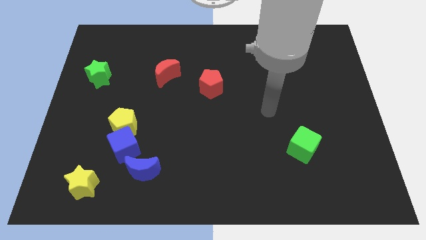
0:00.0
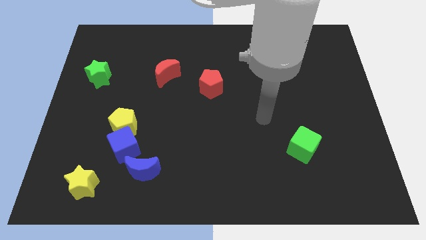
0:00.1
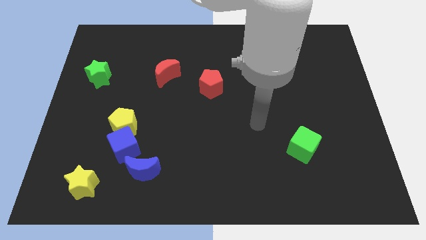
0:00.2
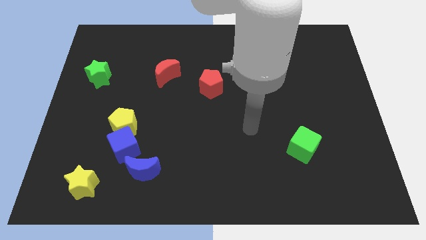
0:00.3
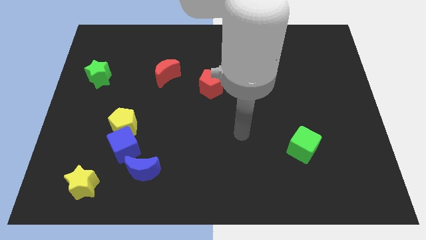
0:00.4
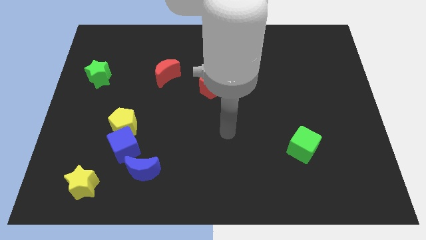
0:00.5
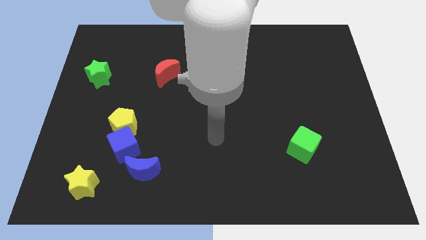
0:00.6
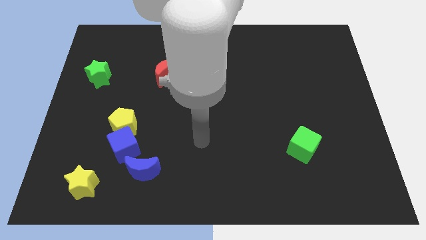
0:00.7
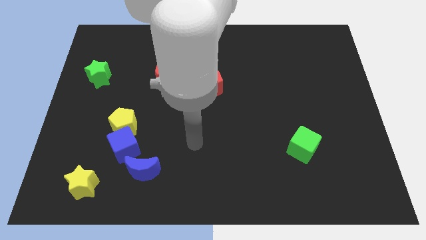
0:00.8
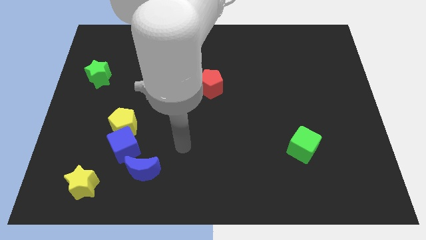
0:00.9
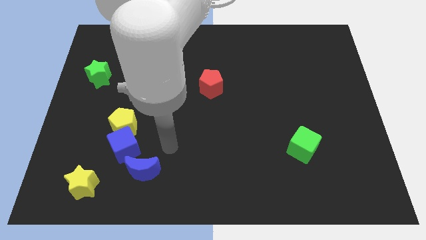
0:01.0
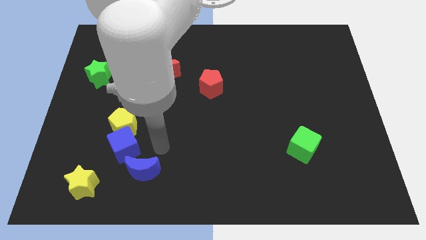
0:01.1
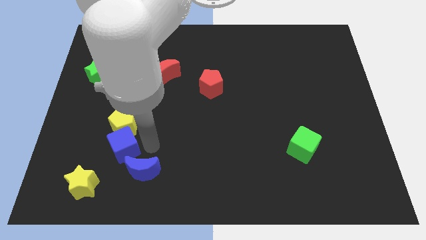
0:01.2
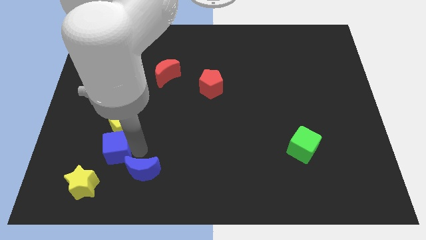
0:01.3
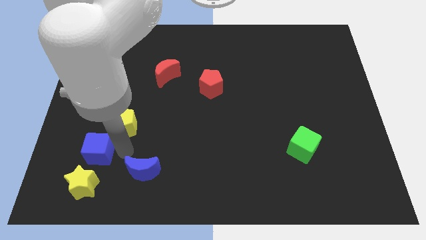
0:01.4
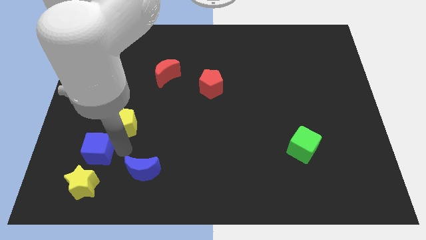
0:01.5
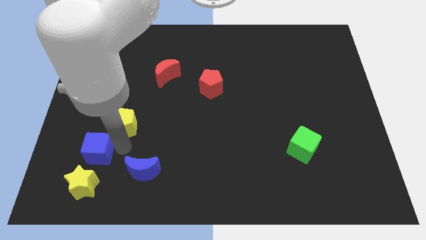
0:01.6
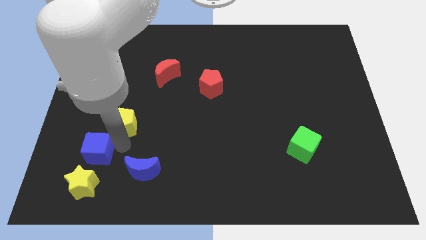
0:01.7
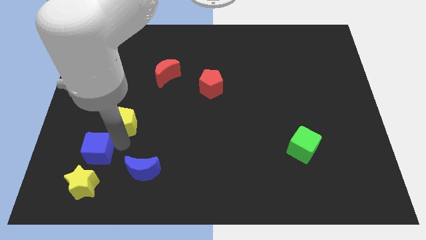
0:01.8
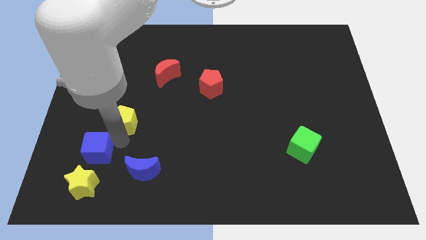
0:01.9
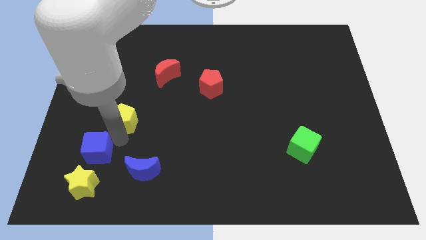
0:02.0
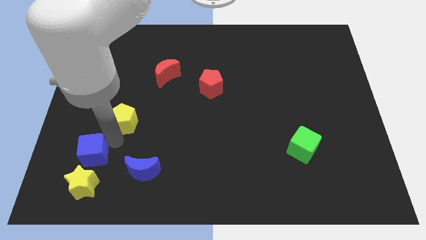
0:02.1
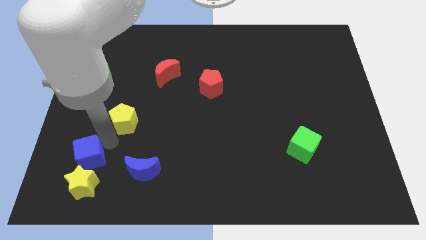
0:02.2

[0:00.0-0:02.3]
separate the yellow pentagon from the blue cube

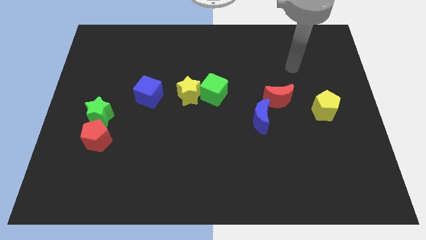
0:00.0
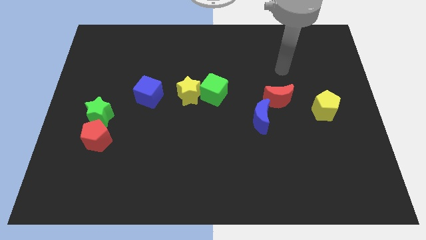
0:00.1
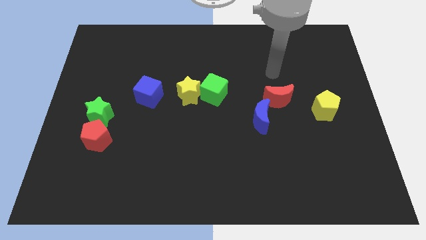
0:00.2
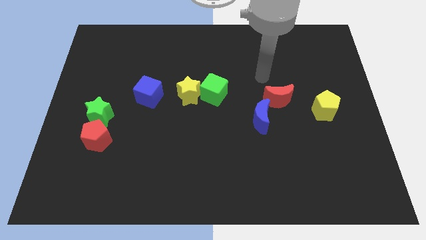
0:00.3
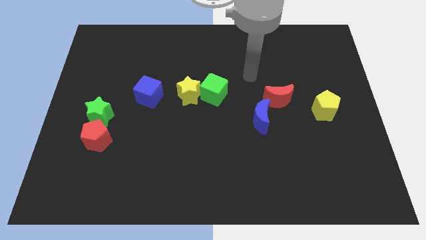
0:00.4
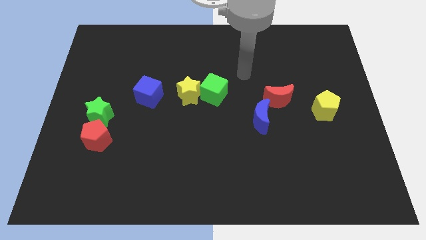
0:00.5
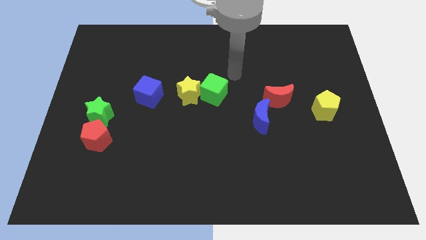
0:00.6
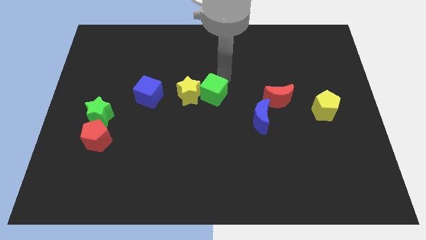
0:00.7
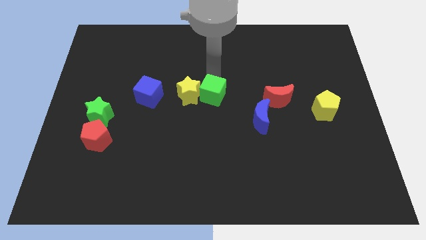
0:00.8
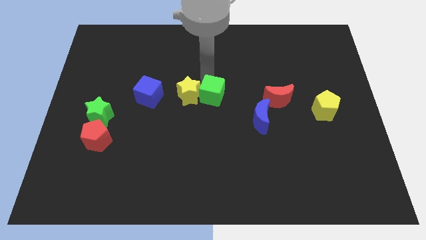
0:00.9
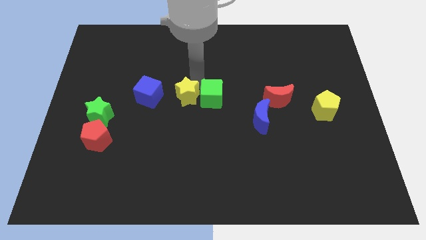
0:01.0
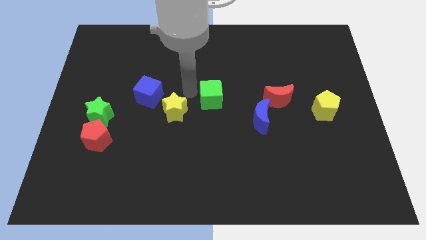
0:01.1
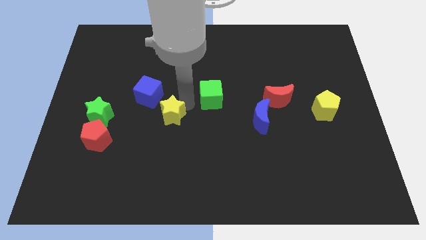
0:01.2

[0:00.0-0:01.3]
move the green cube away from the yellow star

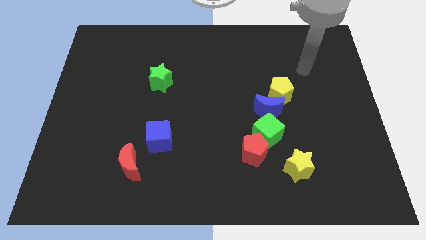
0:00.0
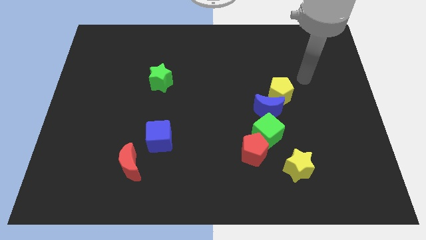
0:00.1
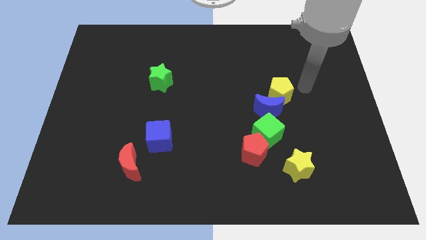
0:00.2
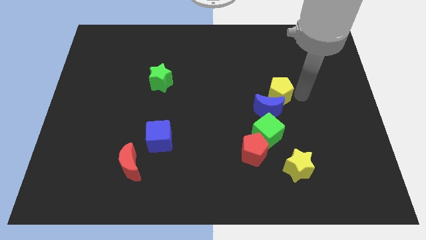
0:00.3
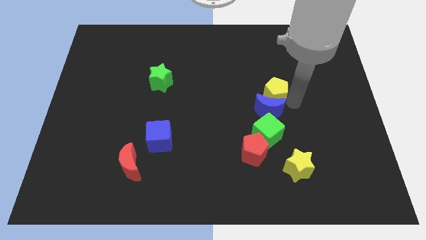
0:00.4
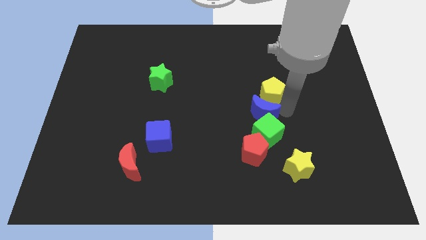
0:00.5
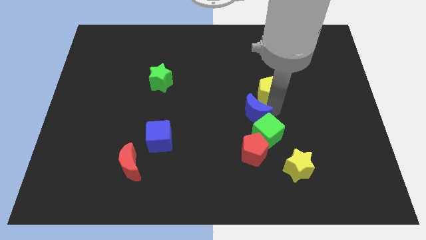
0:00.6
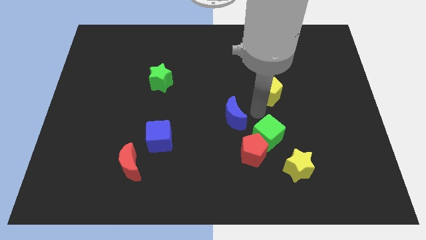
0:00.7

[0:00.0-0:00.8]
move the yellow pentagon away from the blue moon

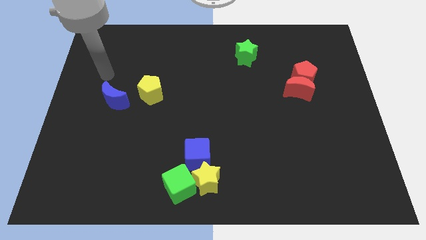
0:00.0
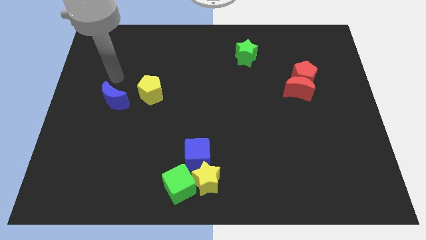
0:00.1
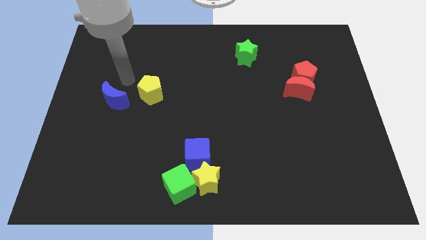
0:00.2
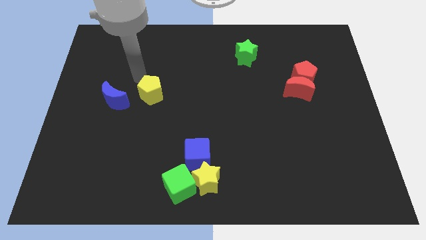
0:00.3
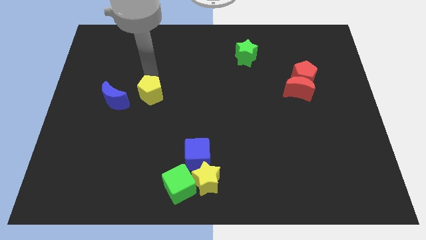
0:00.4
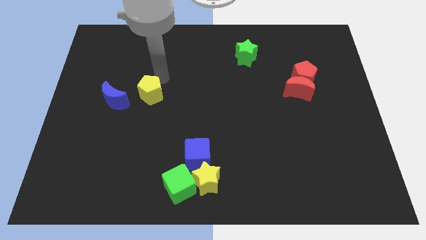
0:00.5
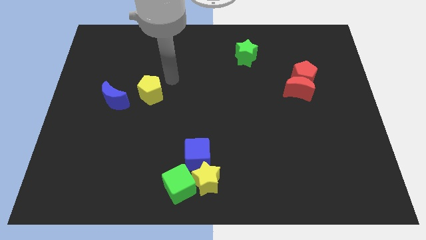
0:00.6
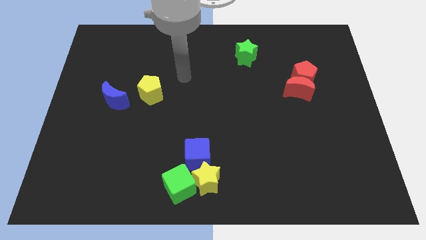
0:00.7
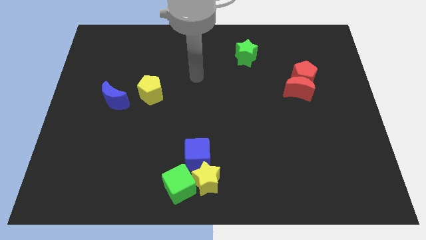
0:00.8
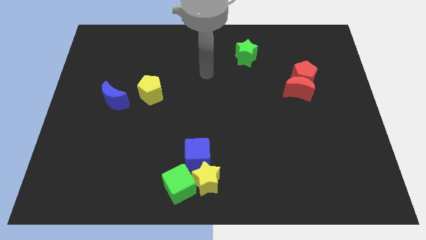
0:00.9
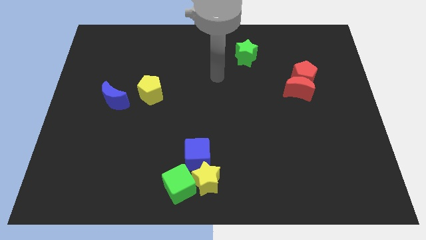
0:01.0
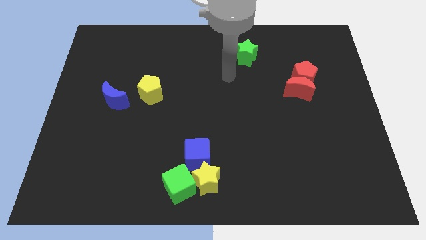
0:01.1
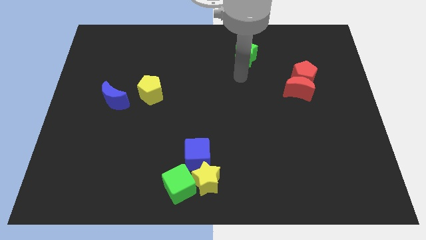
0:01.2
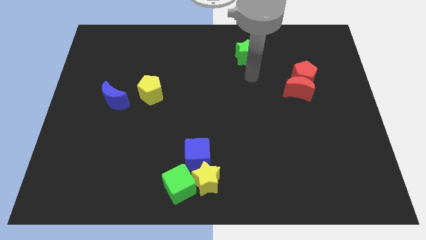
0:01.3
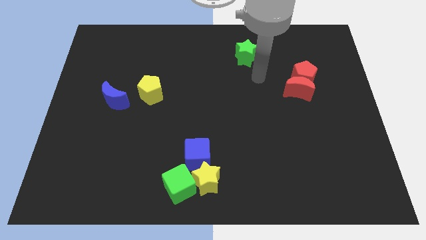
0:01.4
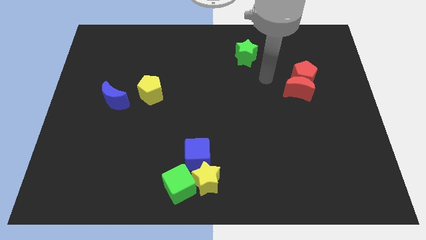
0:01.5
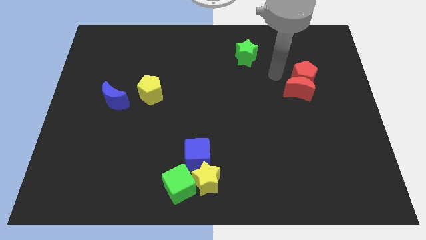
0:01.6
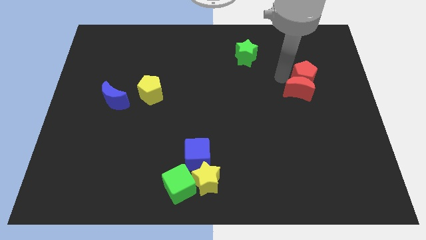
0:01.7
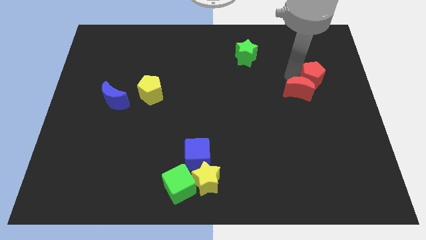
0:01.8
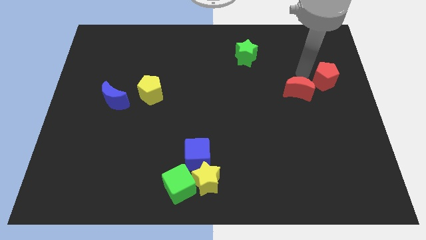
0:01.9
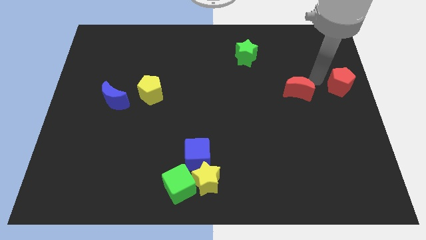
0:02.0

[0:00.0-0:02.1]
move the red moon away from the red pentagon

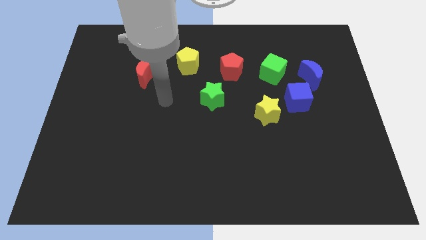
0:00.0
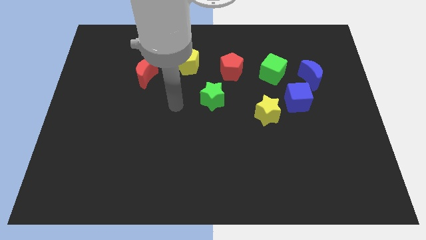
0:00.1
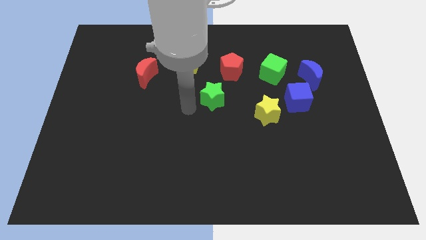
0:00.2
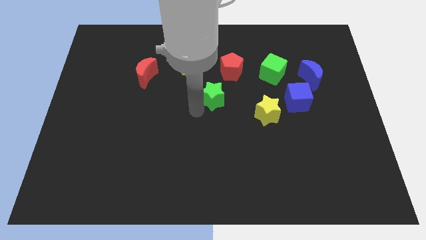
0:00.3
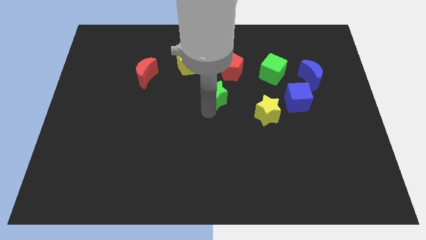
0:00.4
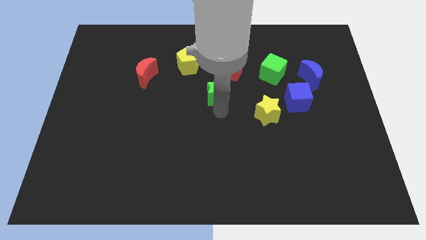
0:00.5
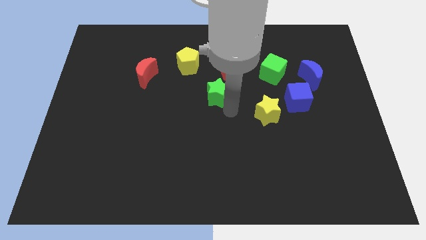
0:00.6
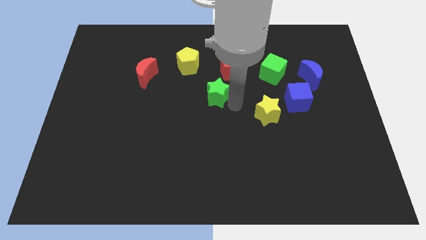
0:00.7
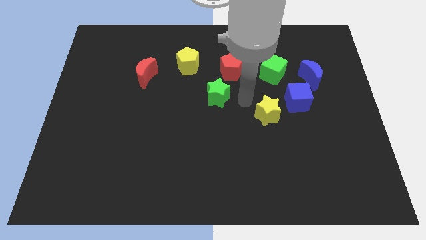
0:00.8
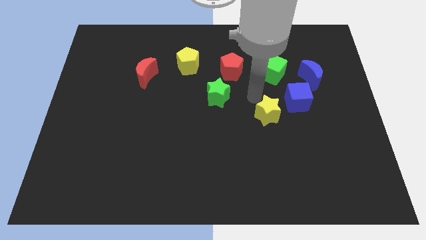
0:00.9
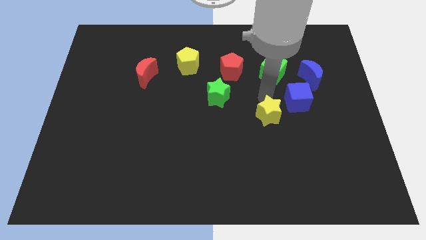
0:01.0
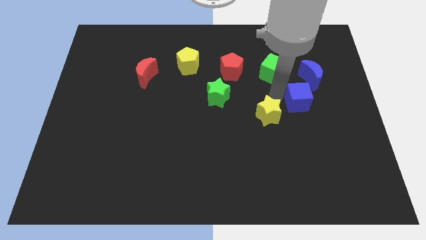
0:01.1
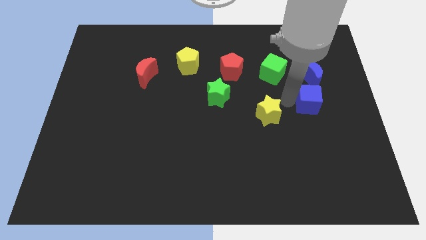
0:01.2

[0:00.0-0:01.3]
separate the yellow star from the blue cube

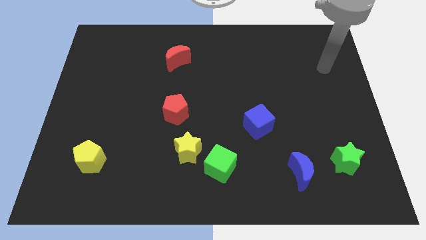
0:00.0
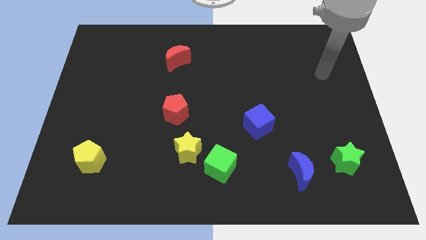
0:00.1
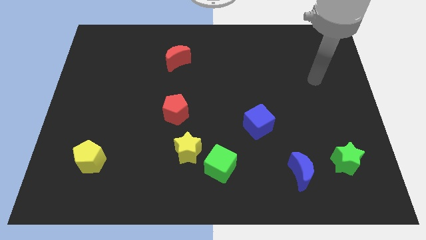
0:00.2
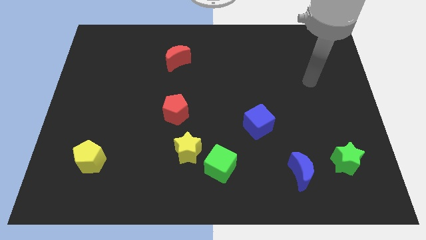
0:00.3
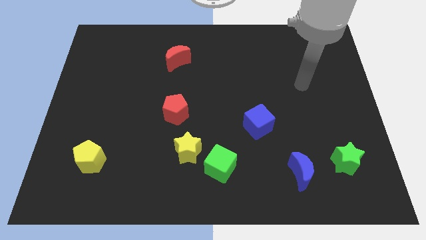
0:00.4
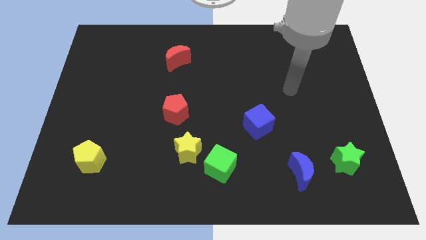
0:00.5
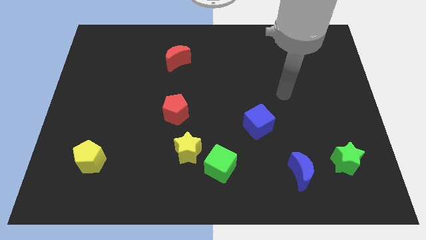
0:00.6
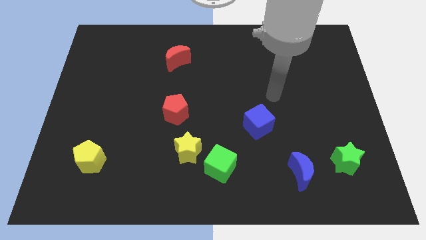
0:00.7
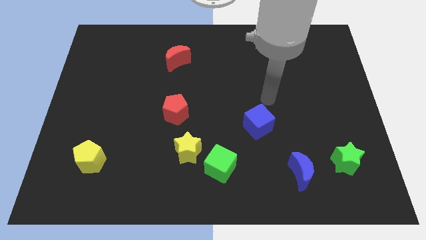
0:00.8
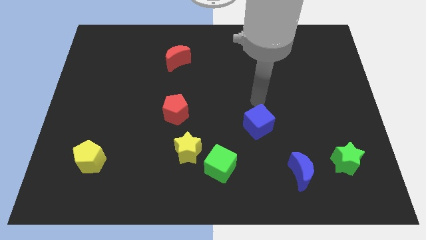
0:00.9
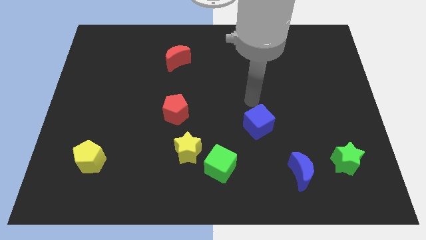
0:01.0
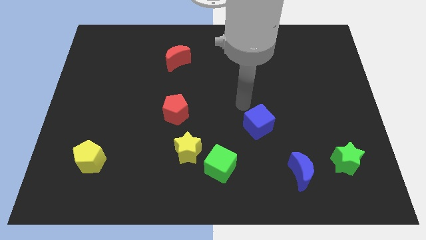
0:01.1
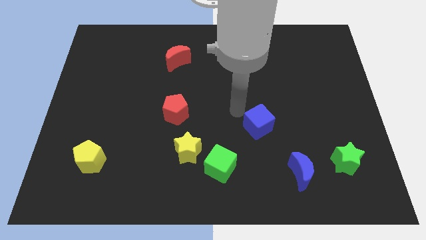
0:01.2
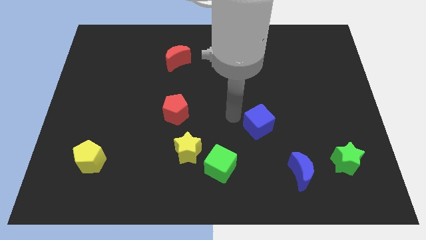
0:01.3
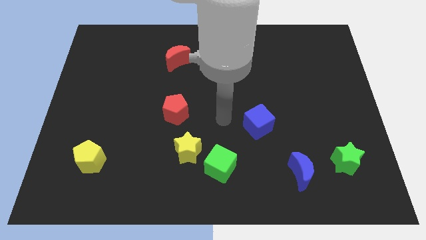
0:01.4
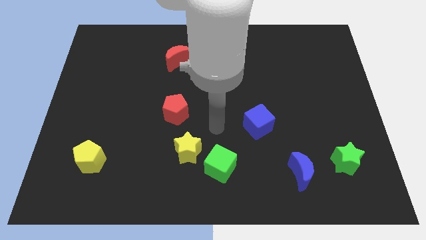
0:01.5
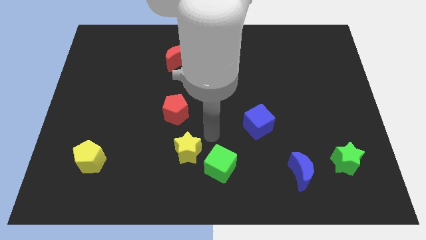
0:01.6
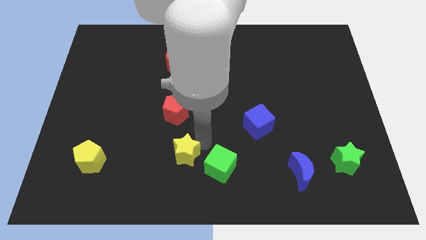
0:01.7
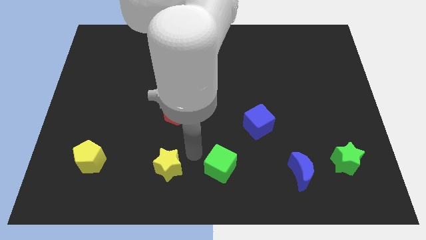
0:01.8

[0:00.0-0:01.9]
pull the green cube apart from the yellow star
